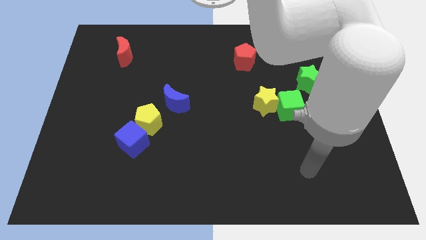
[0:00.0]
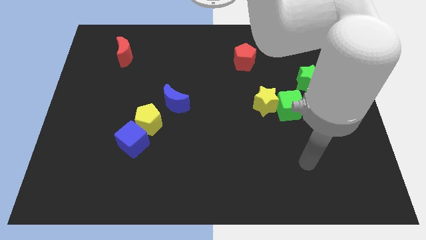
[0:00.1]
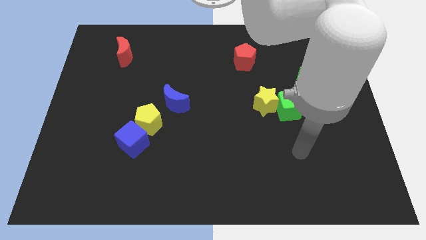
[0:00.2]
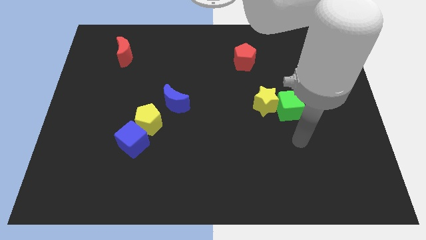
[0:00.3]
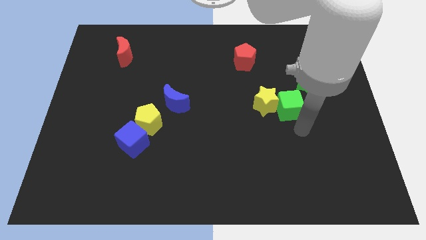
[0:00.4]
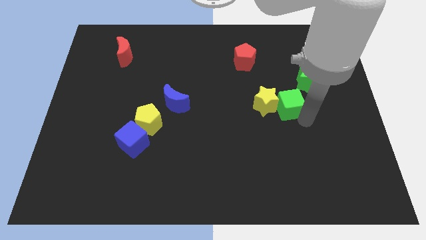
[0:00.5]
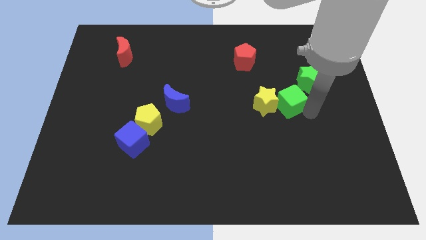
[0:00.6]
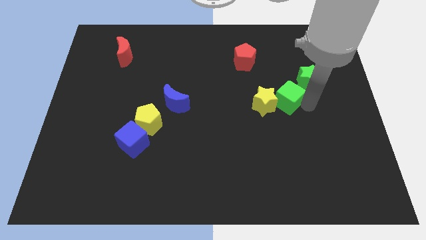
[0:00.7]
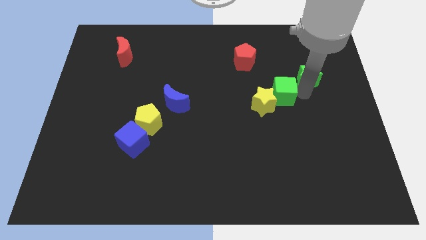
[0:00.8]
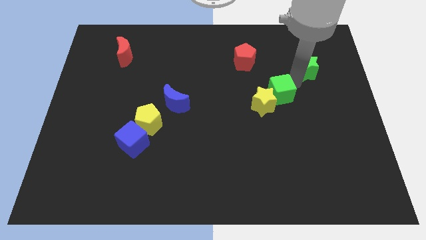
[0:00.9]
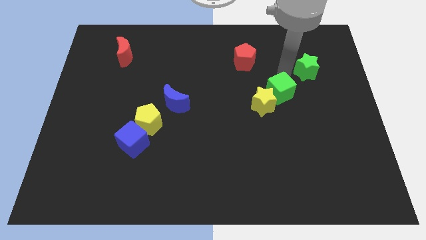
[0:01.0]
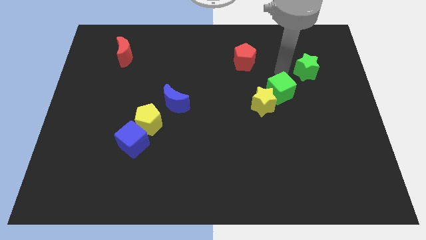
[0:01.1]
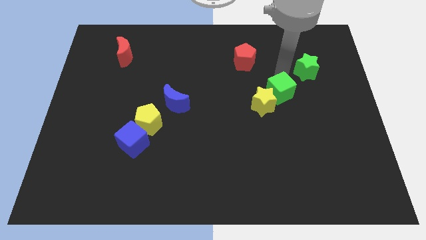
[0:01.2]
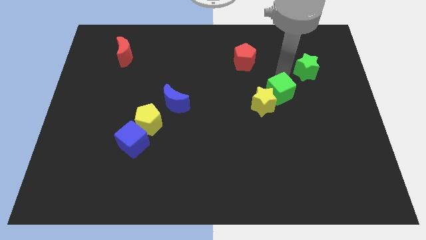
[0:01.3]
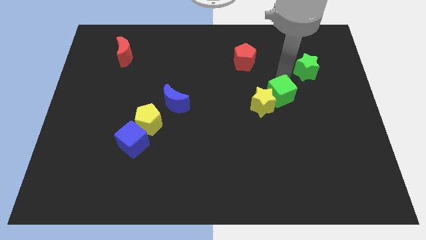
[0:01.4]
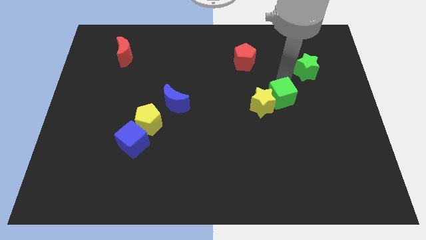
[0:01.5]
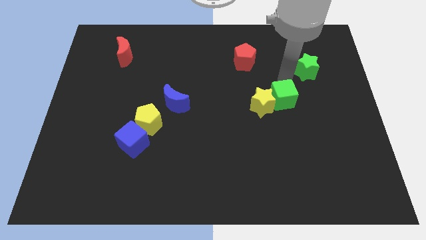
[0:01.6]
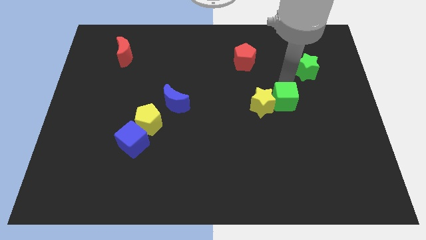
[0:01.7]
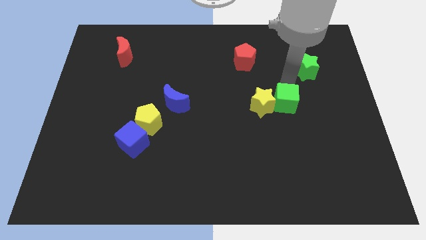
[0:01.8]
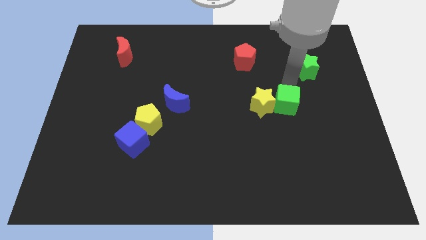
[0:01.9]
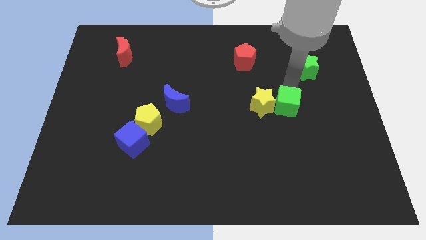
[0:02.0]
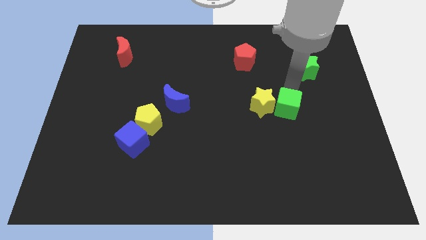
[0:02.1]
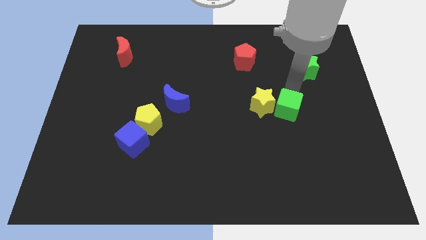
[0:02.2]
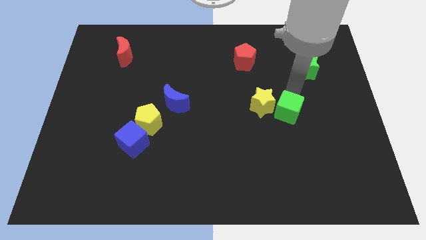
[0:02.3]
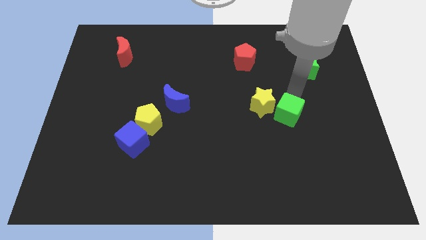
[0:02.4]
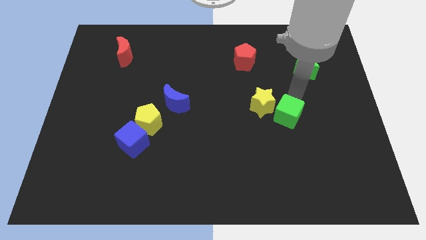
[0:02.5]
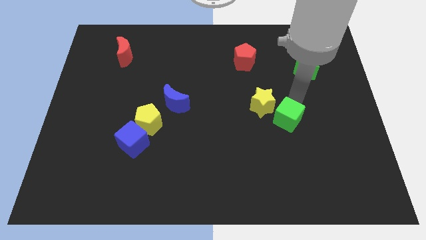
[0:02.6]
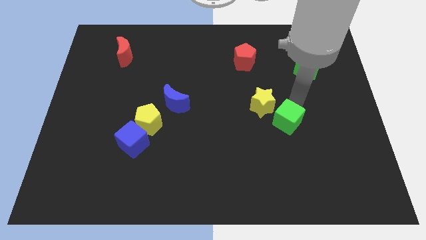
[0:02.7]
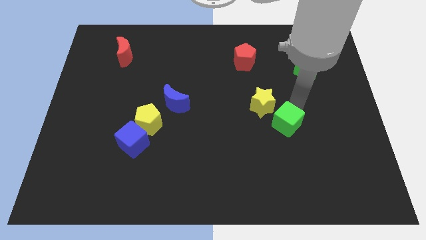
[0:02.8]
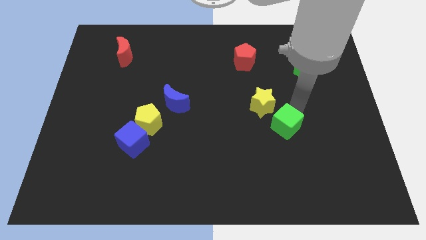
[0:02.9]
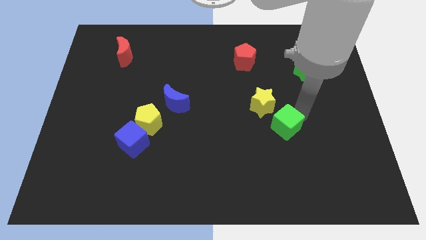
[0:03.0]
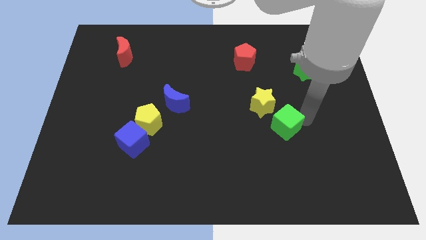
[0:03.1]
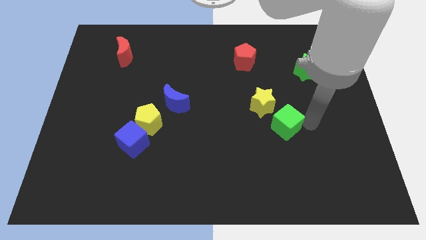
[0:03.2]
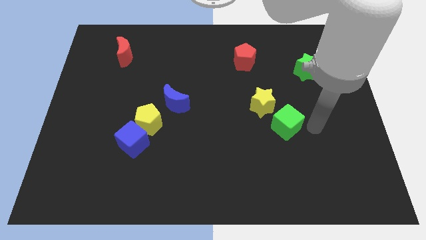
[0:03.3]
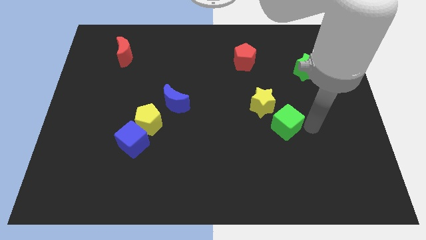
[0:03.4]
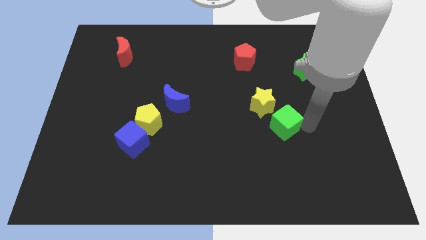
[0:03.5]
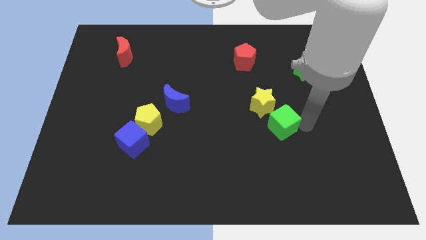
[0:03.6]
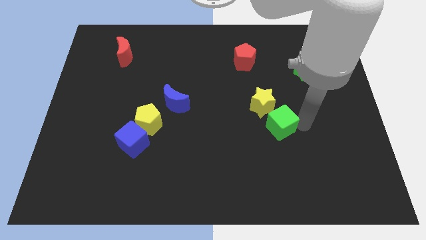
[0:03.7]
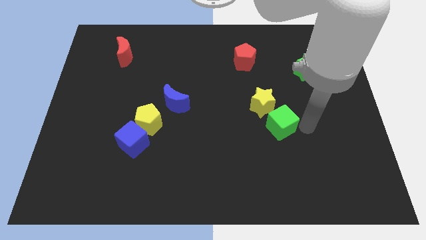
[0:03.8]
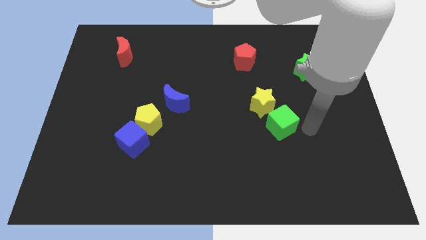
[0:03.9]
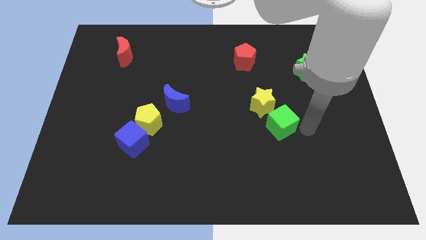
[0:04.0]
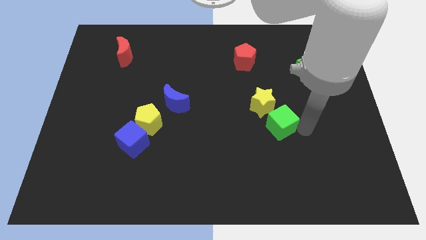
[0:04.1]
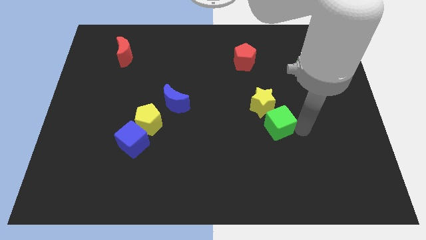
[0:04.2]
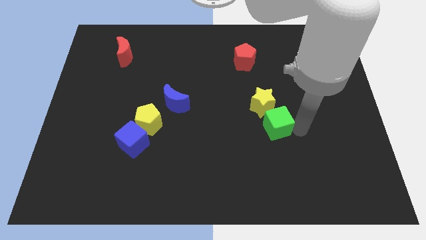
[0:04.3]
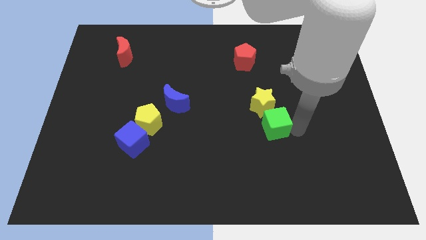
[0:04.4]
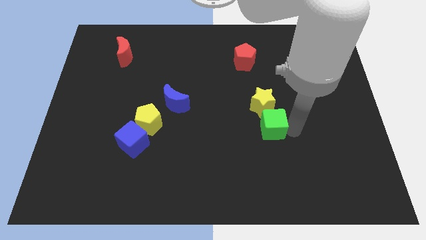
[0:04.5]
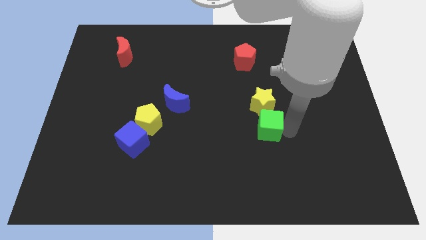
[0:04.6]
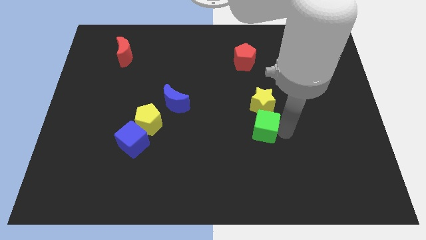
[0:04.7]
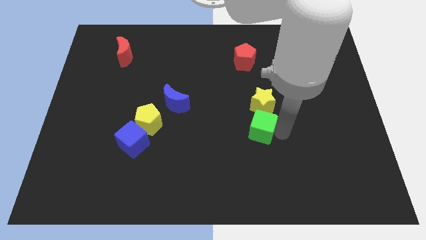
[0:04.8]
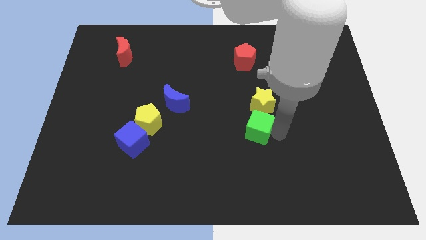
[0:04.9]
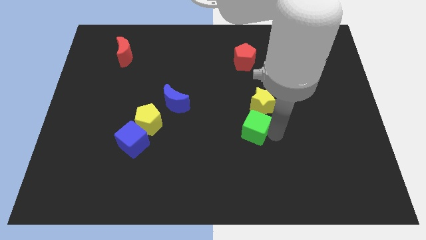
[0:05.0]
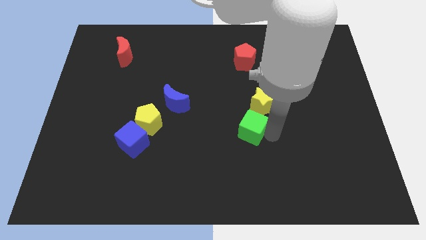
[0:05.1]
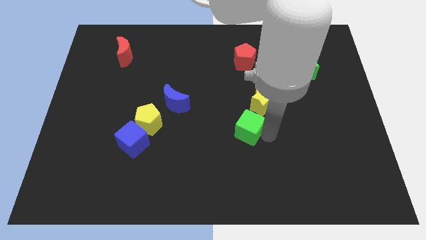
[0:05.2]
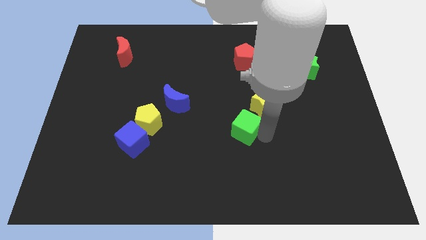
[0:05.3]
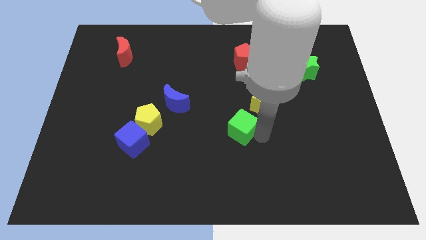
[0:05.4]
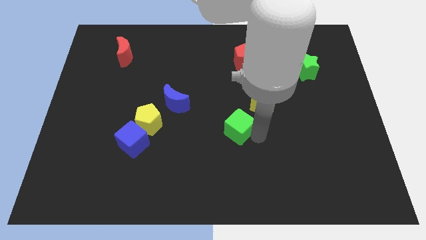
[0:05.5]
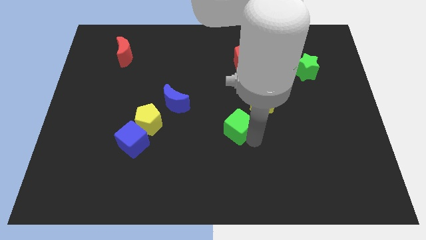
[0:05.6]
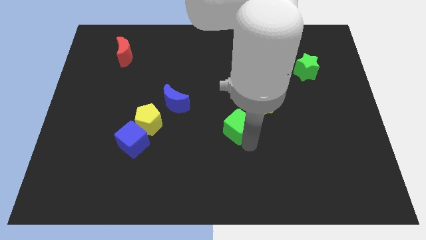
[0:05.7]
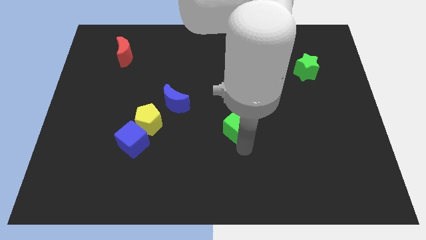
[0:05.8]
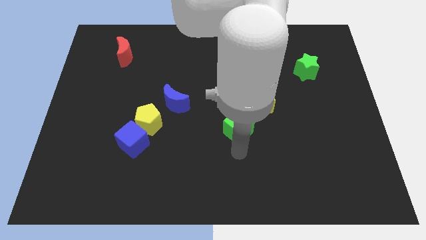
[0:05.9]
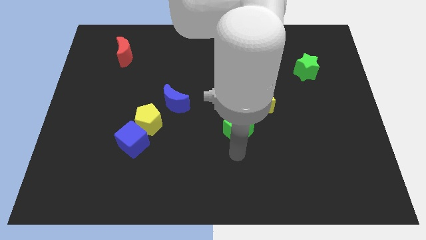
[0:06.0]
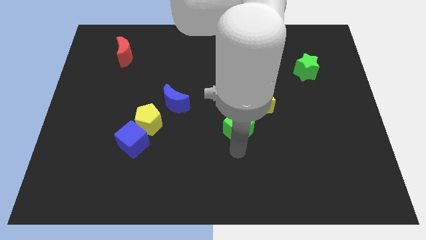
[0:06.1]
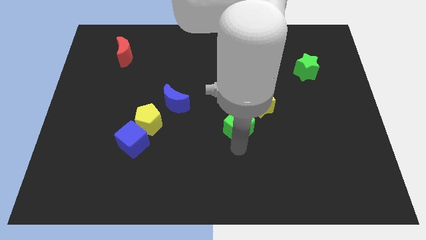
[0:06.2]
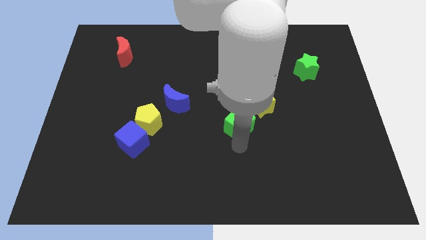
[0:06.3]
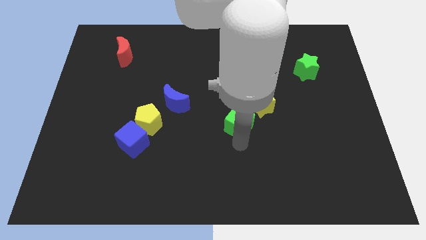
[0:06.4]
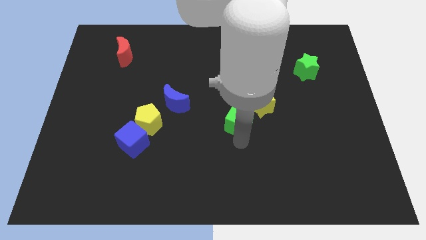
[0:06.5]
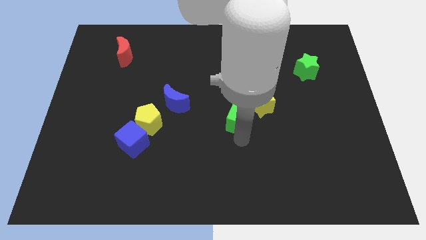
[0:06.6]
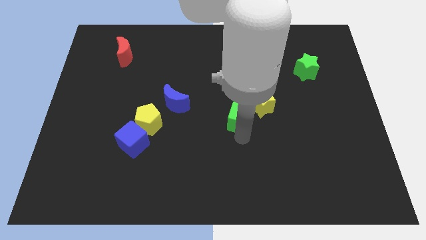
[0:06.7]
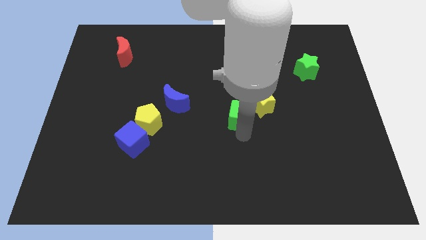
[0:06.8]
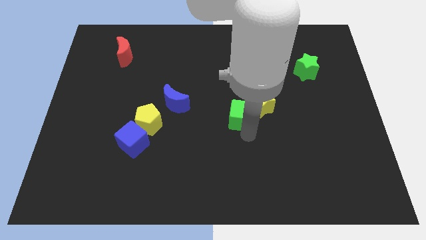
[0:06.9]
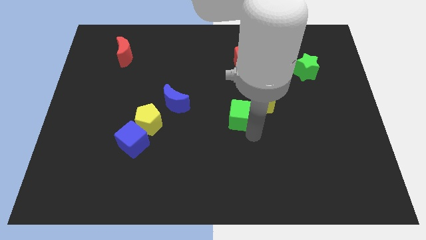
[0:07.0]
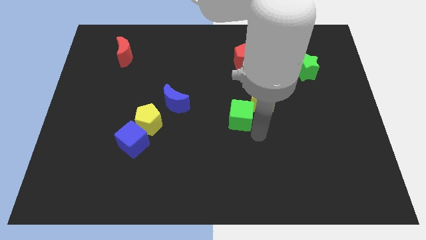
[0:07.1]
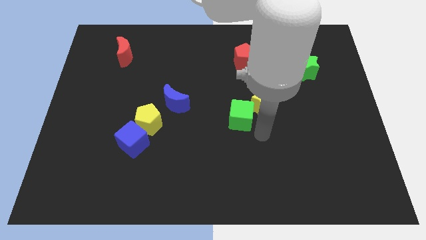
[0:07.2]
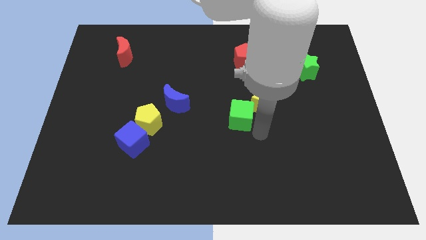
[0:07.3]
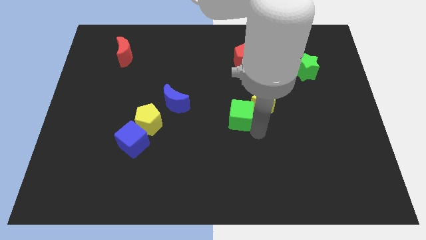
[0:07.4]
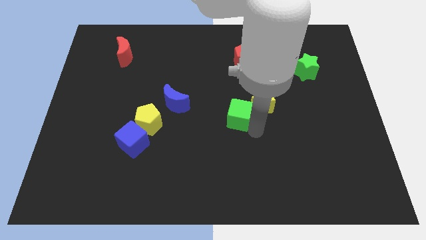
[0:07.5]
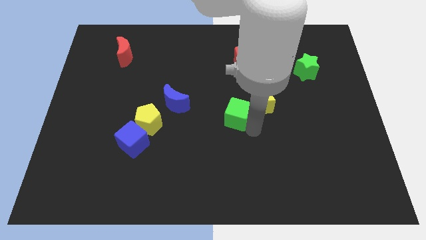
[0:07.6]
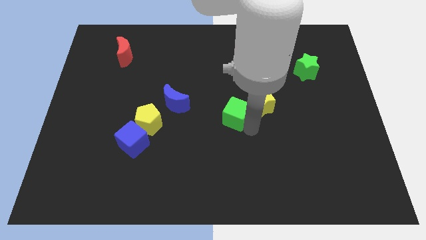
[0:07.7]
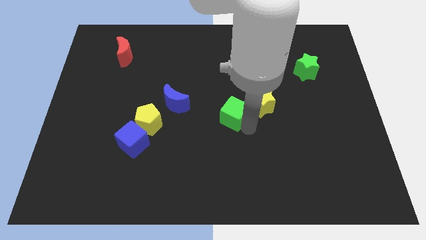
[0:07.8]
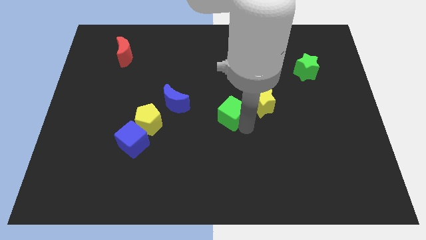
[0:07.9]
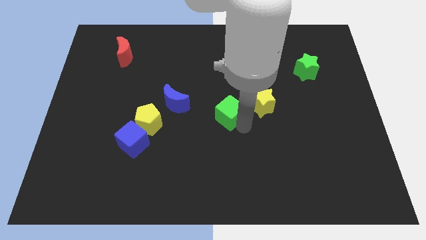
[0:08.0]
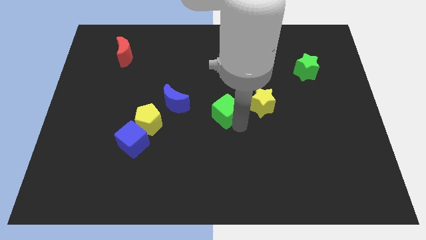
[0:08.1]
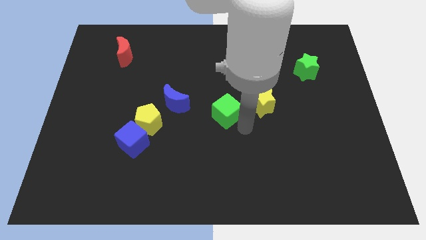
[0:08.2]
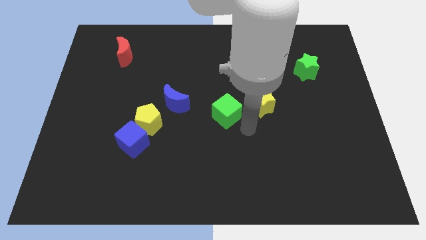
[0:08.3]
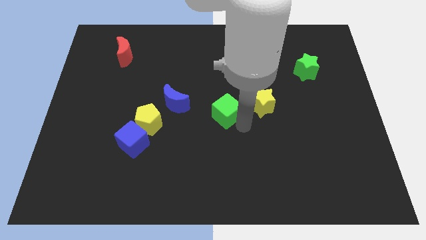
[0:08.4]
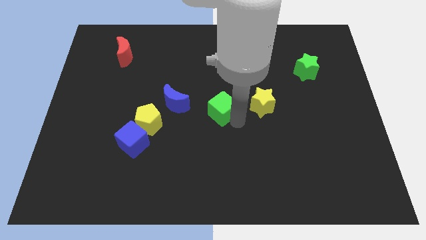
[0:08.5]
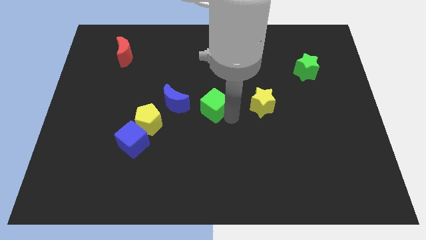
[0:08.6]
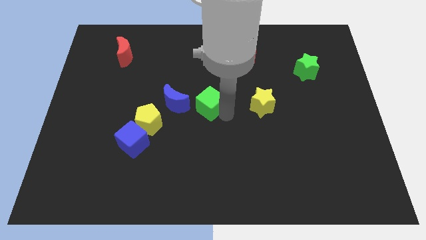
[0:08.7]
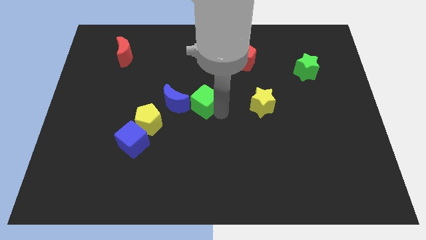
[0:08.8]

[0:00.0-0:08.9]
move the green cube left
